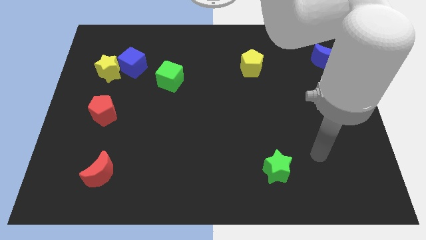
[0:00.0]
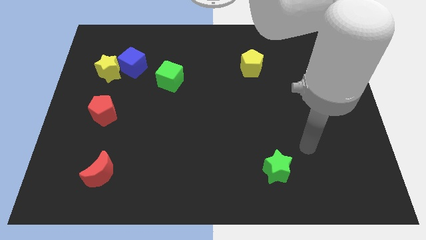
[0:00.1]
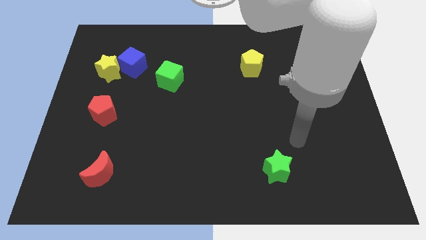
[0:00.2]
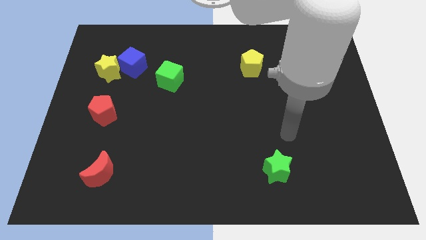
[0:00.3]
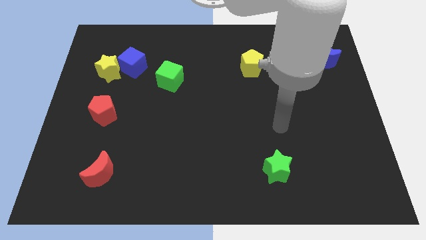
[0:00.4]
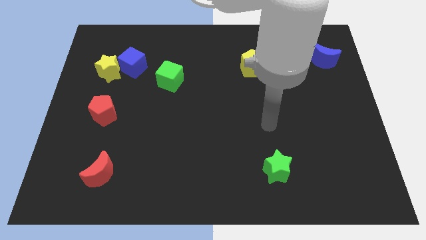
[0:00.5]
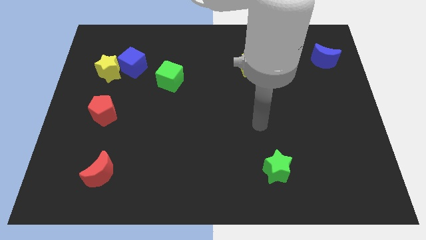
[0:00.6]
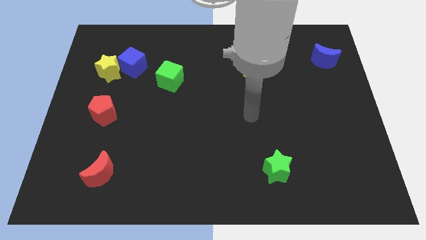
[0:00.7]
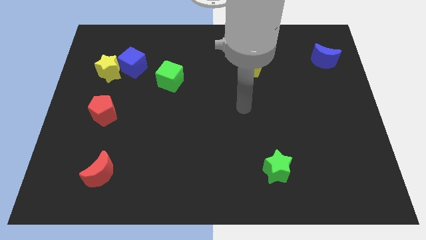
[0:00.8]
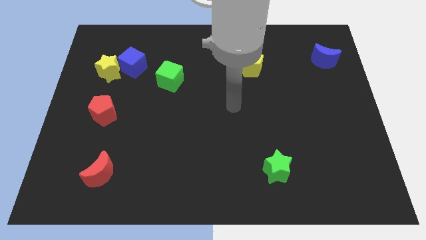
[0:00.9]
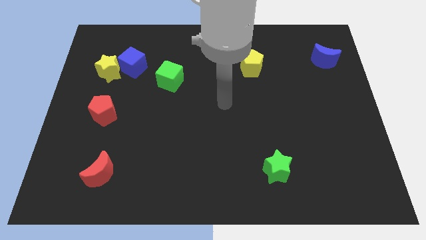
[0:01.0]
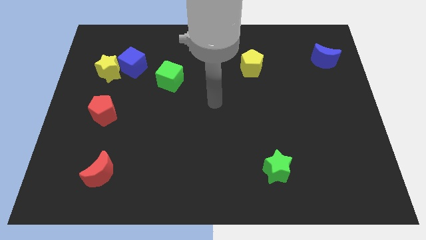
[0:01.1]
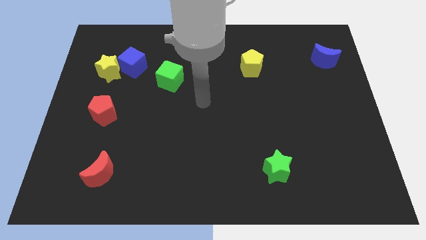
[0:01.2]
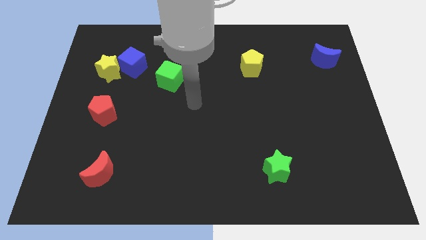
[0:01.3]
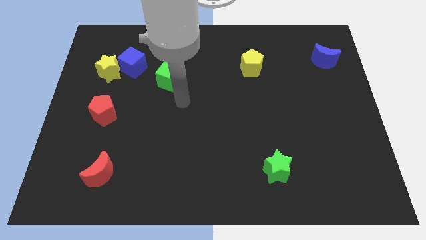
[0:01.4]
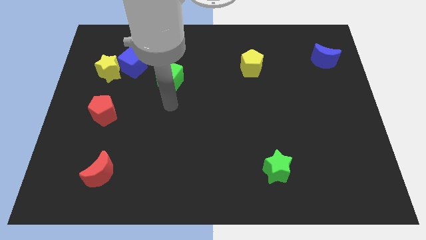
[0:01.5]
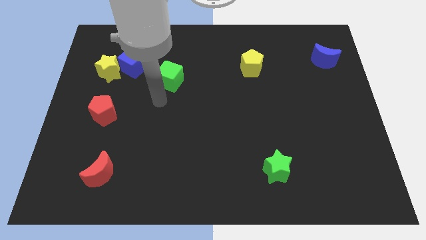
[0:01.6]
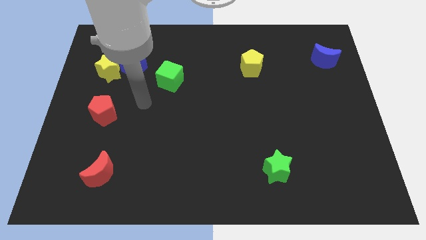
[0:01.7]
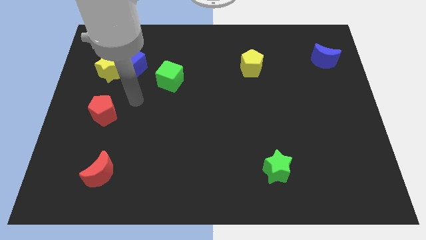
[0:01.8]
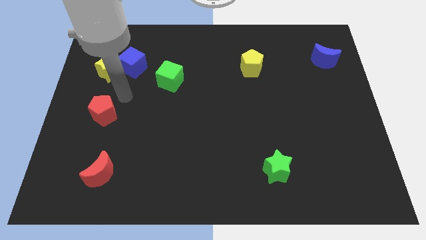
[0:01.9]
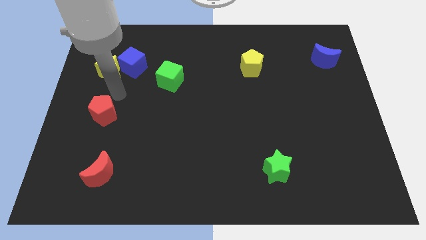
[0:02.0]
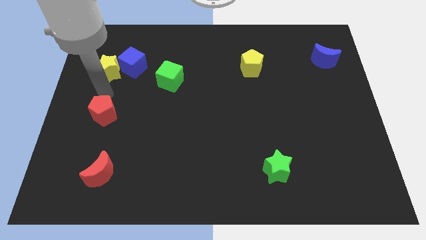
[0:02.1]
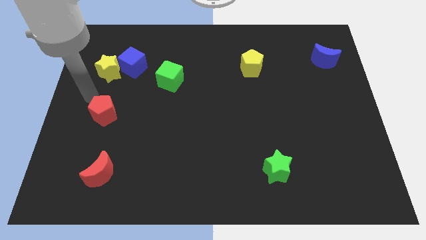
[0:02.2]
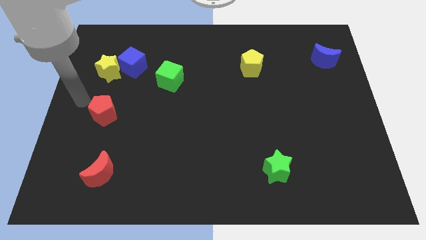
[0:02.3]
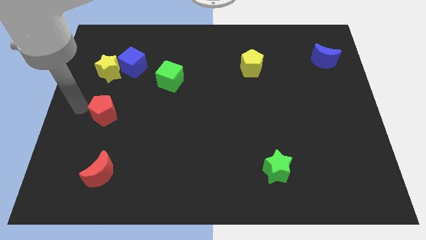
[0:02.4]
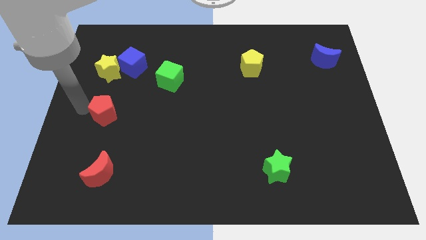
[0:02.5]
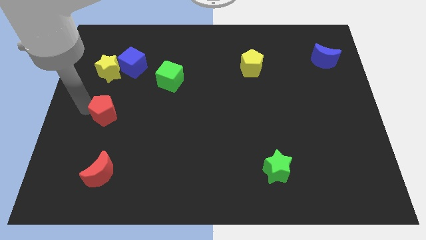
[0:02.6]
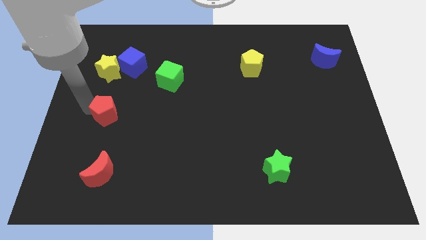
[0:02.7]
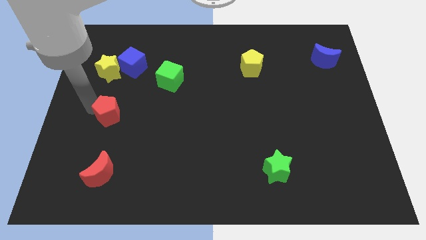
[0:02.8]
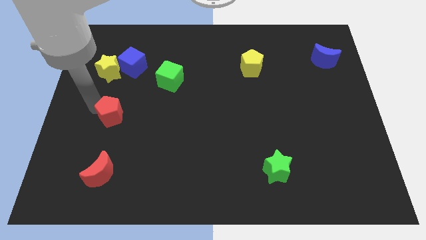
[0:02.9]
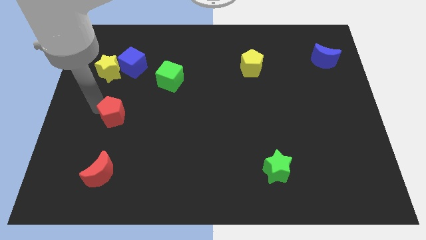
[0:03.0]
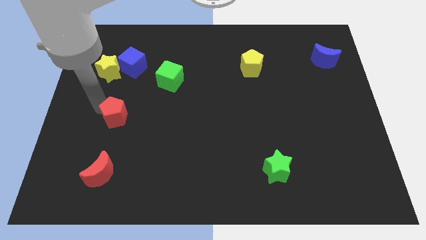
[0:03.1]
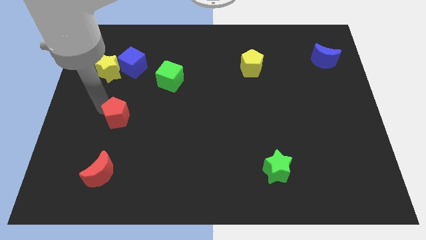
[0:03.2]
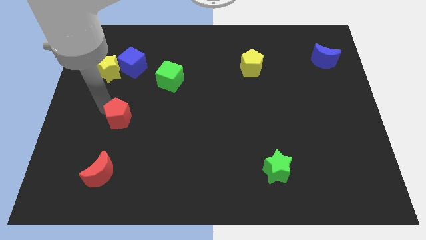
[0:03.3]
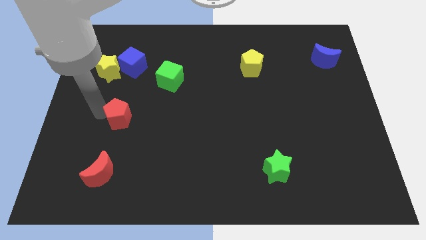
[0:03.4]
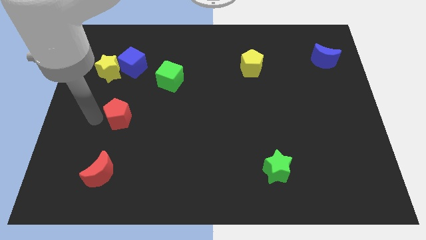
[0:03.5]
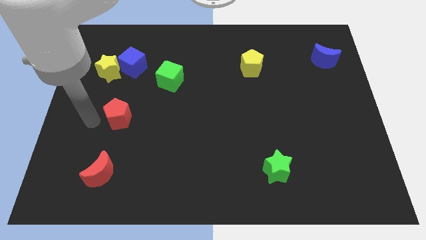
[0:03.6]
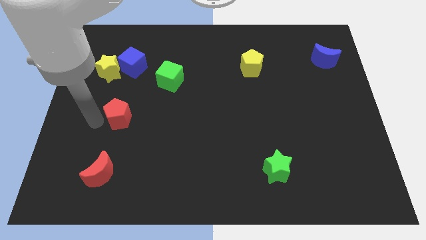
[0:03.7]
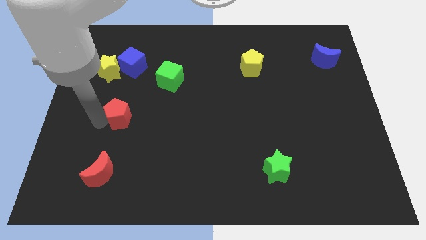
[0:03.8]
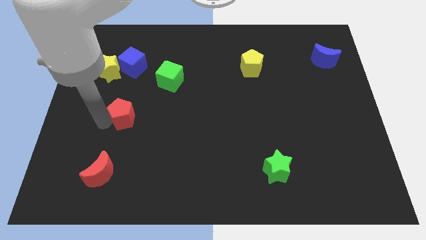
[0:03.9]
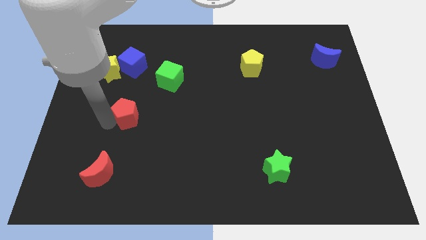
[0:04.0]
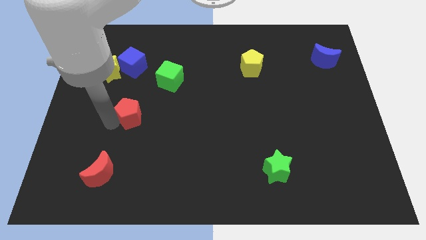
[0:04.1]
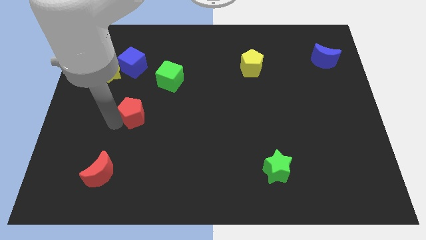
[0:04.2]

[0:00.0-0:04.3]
slightly push the red pentagon to the right

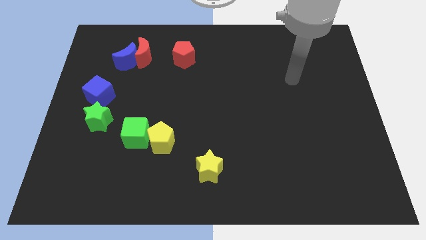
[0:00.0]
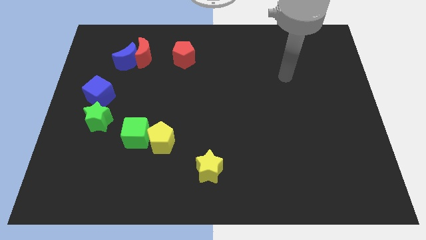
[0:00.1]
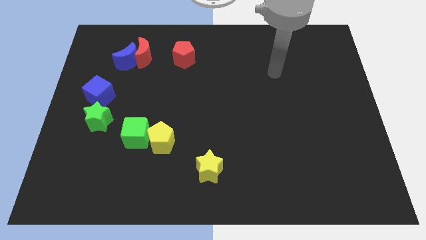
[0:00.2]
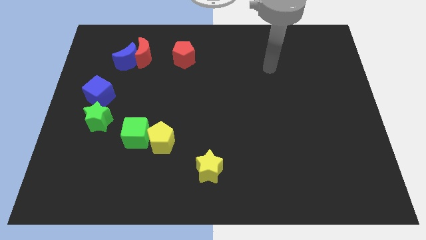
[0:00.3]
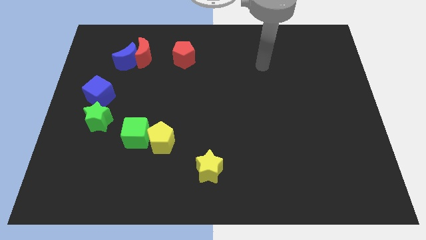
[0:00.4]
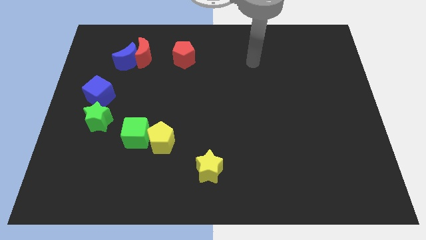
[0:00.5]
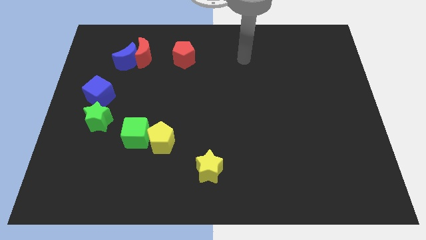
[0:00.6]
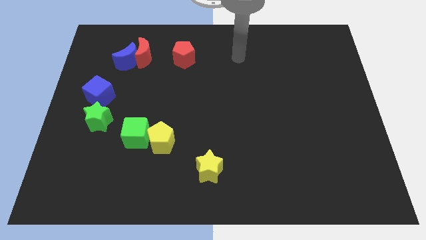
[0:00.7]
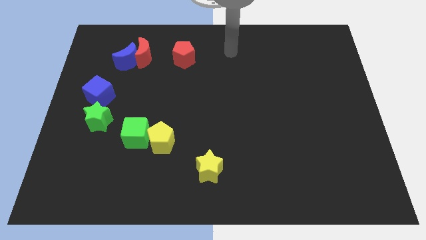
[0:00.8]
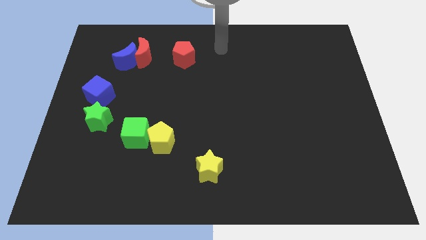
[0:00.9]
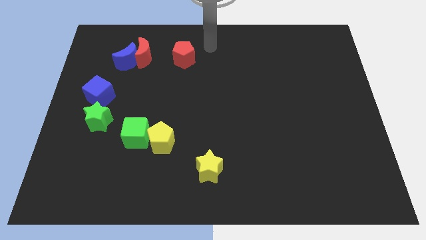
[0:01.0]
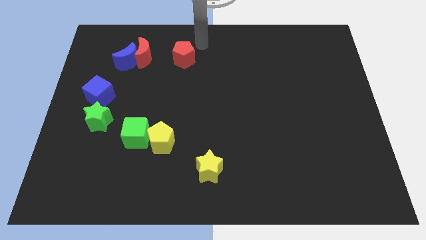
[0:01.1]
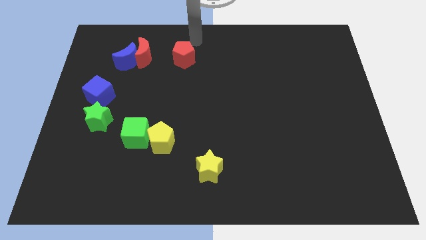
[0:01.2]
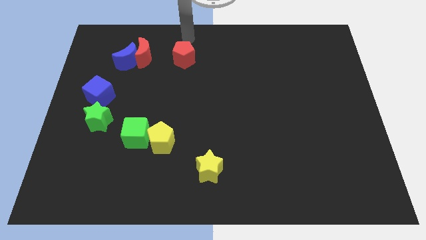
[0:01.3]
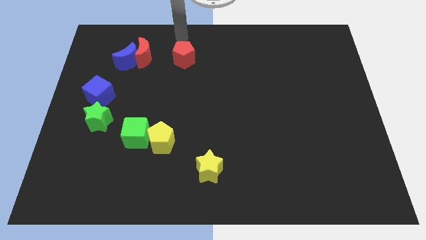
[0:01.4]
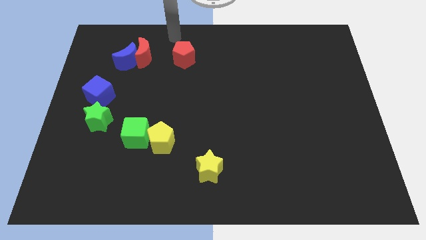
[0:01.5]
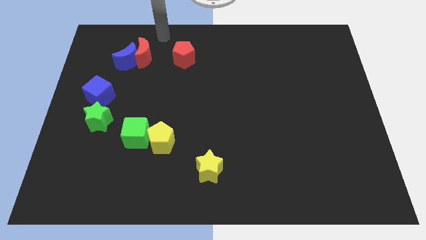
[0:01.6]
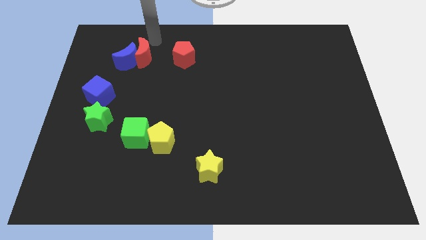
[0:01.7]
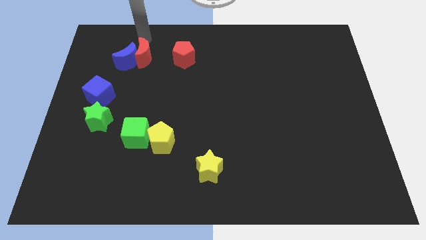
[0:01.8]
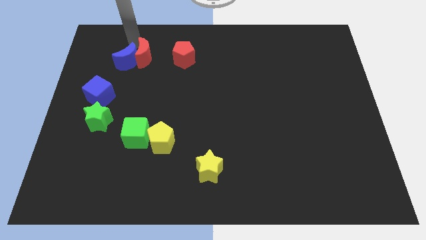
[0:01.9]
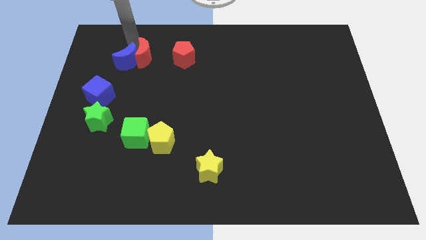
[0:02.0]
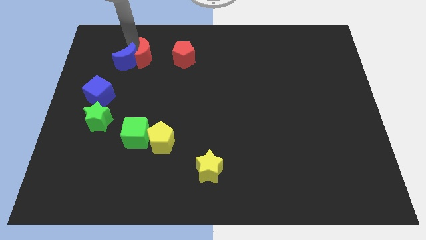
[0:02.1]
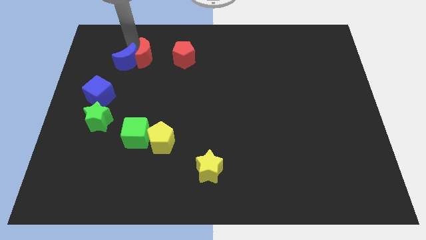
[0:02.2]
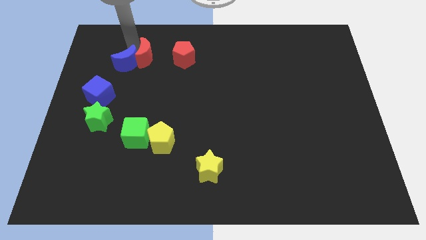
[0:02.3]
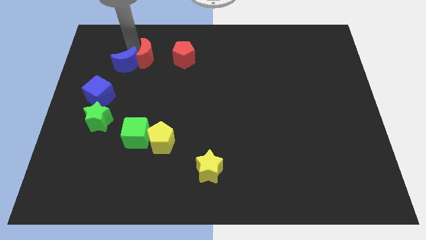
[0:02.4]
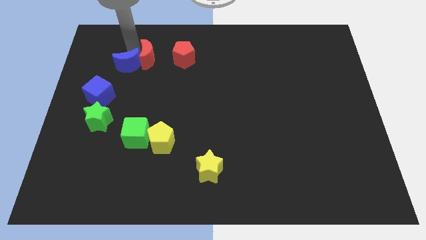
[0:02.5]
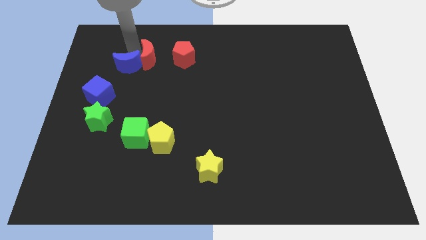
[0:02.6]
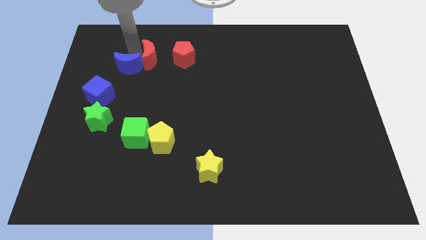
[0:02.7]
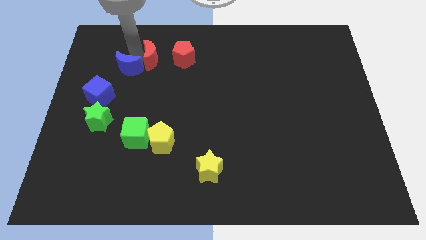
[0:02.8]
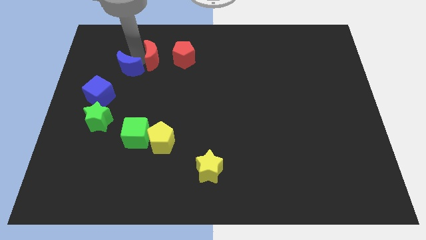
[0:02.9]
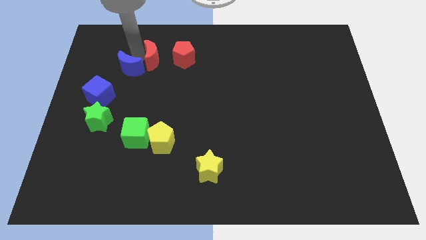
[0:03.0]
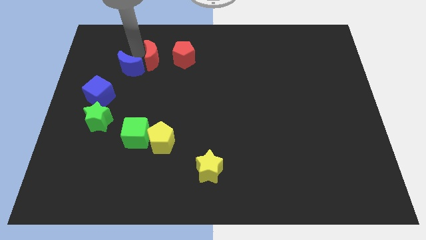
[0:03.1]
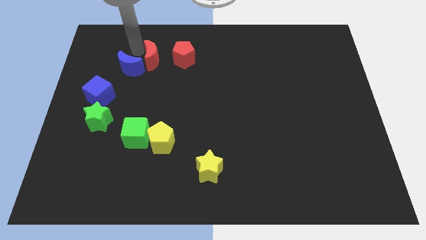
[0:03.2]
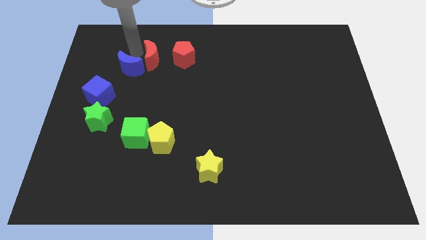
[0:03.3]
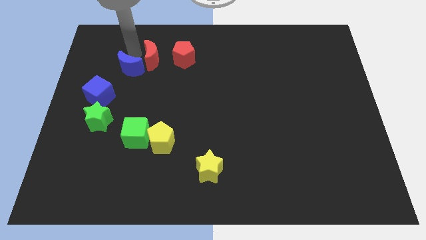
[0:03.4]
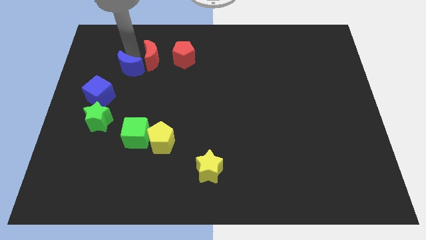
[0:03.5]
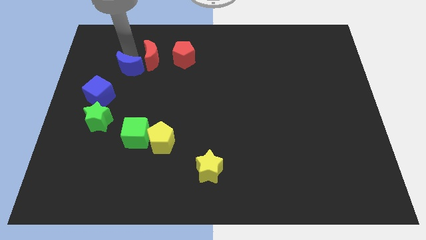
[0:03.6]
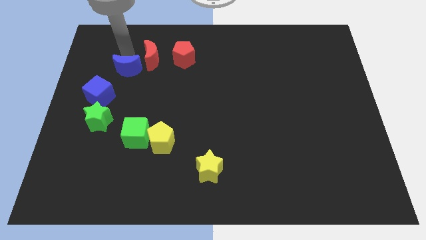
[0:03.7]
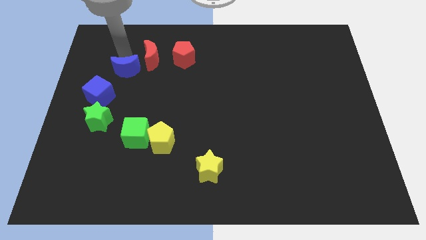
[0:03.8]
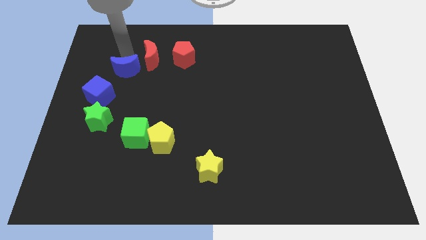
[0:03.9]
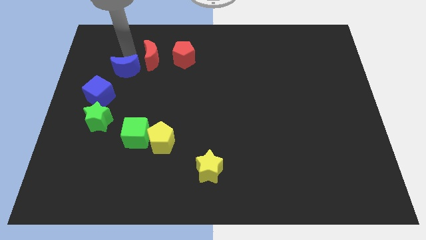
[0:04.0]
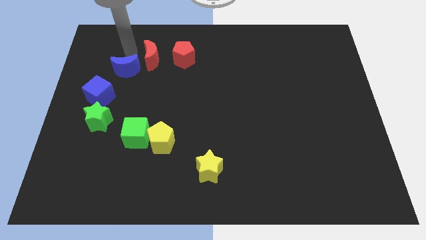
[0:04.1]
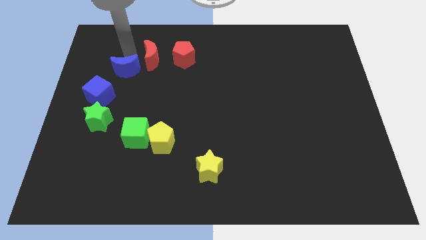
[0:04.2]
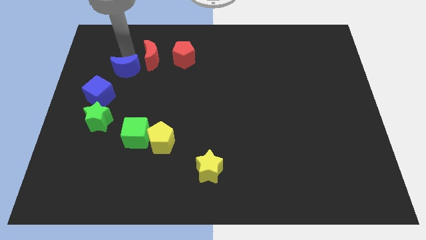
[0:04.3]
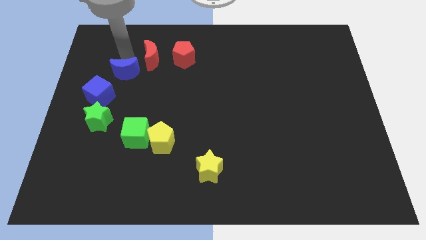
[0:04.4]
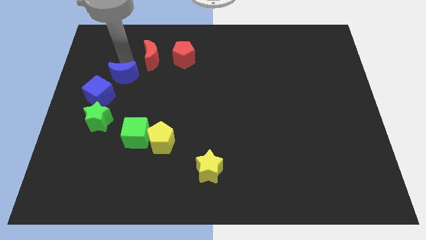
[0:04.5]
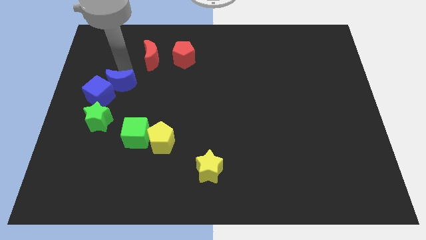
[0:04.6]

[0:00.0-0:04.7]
move the blue moon a bit downwards
